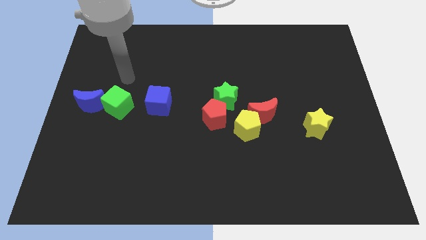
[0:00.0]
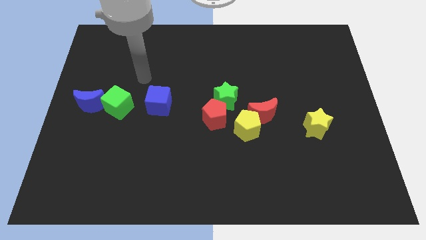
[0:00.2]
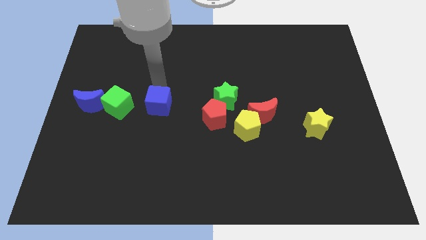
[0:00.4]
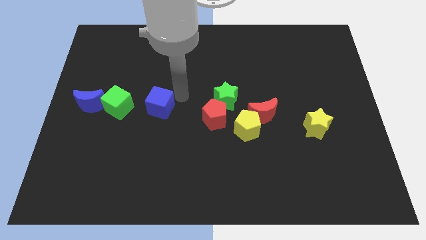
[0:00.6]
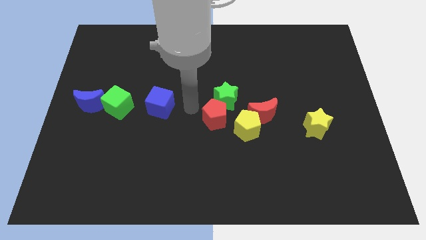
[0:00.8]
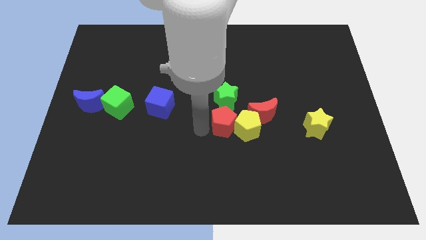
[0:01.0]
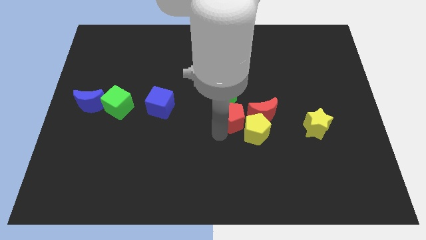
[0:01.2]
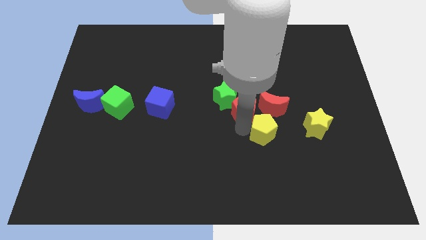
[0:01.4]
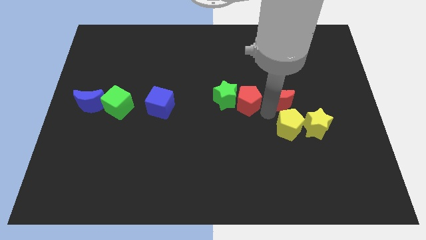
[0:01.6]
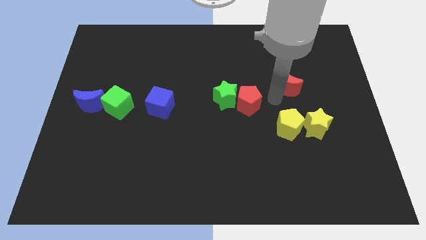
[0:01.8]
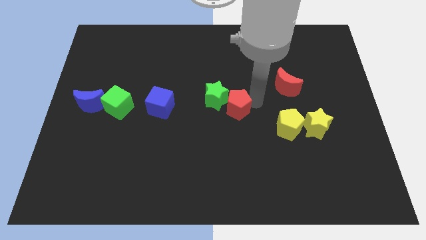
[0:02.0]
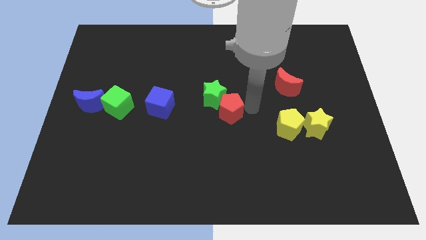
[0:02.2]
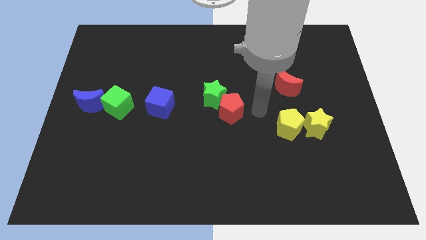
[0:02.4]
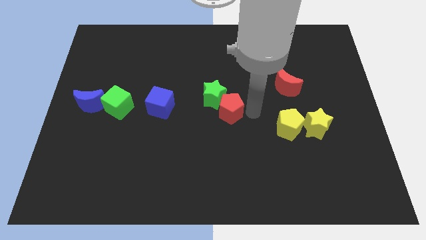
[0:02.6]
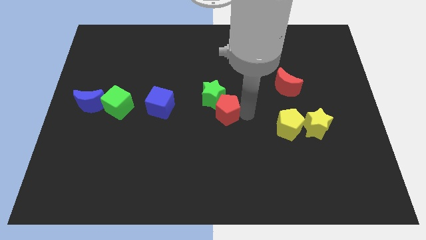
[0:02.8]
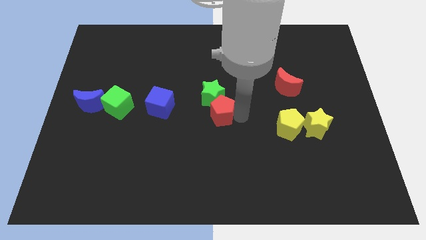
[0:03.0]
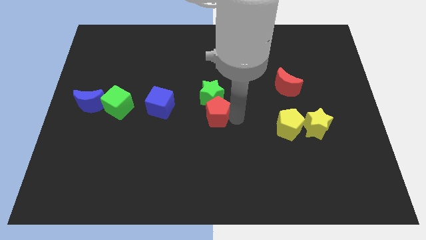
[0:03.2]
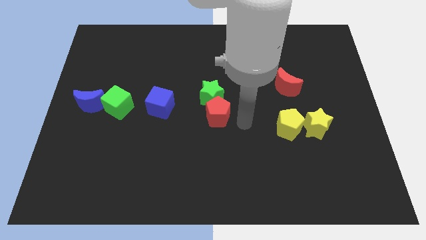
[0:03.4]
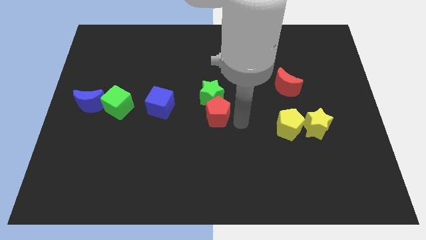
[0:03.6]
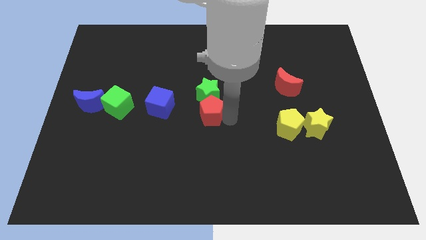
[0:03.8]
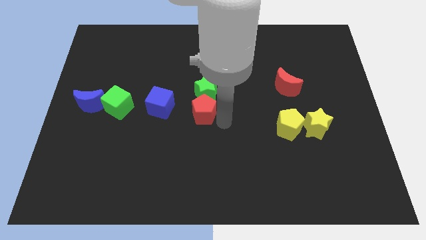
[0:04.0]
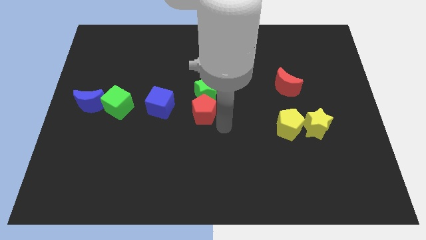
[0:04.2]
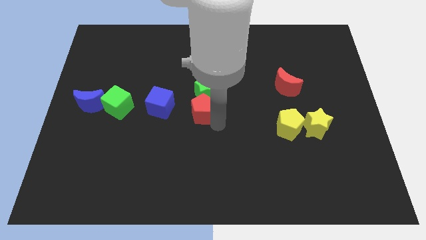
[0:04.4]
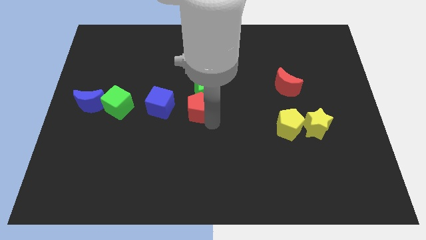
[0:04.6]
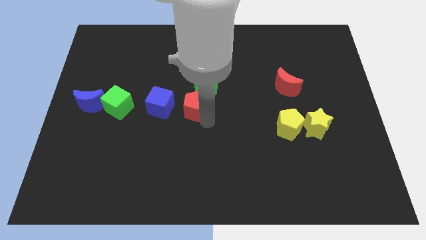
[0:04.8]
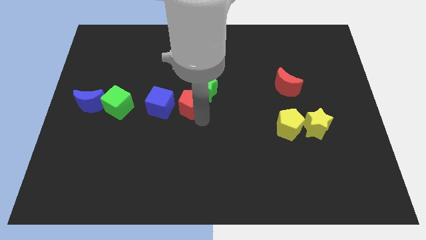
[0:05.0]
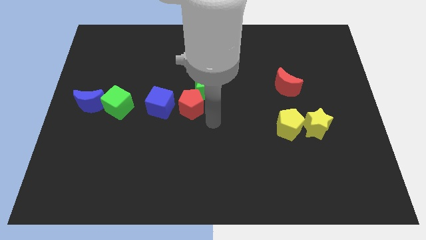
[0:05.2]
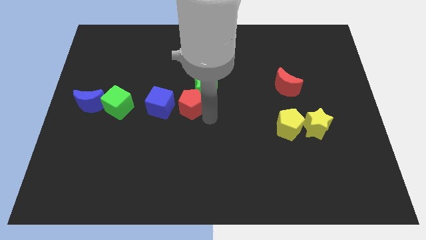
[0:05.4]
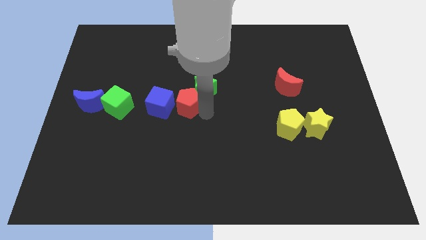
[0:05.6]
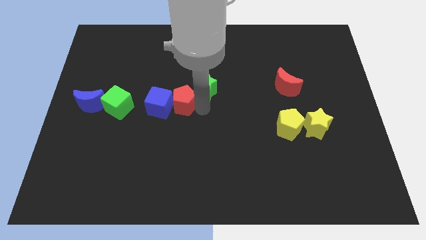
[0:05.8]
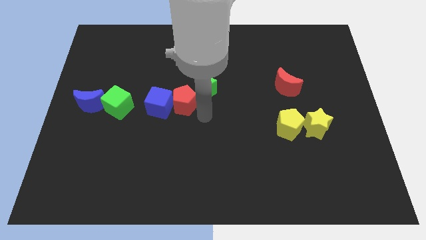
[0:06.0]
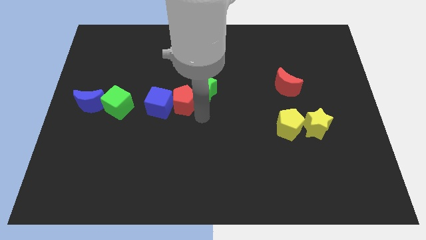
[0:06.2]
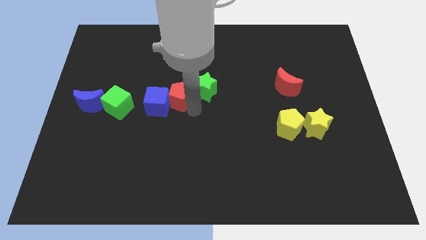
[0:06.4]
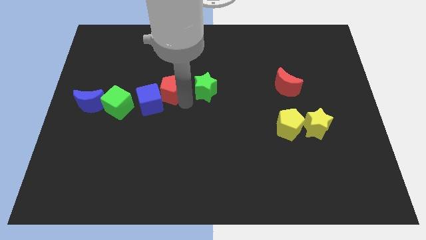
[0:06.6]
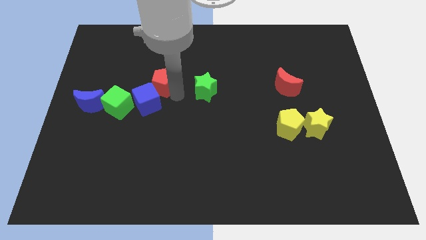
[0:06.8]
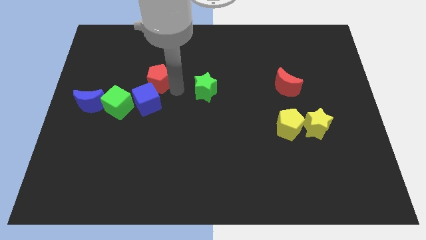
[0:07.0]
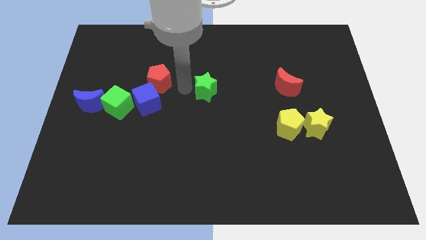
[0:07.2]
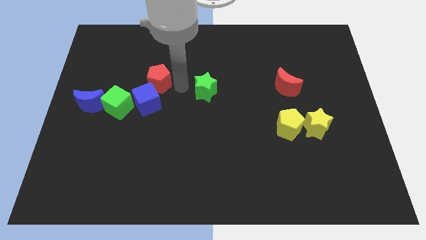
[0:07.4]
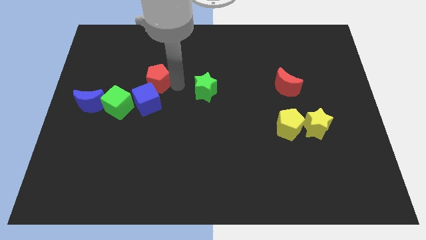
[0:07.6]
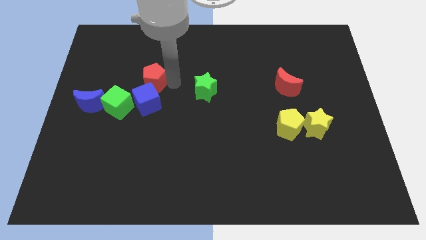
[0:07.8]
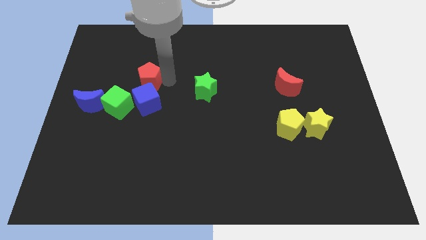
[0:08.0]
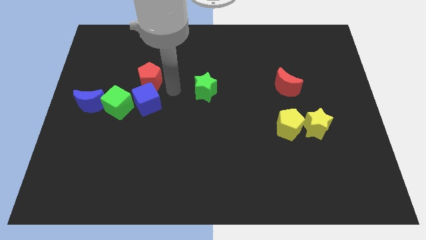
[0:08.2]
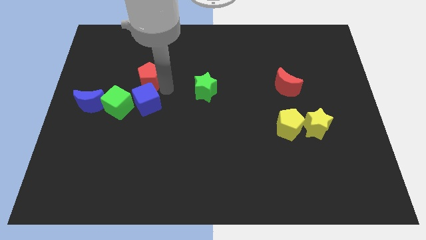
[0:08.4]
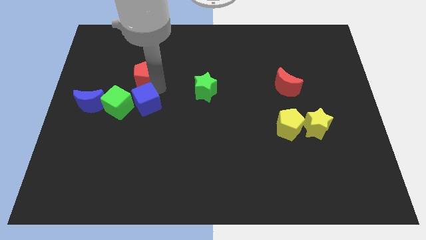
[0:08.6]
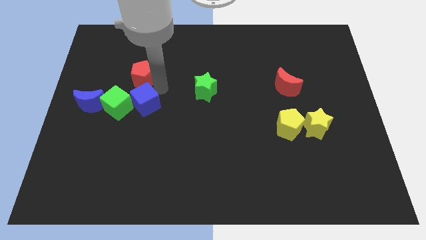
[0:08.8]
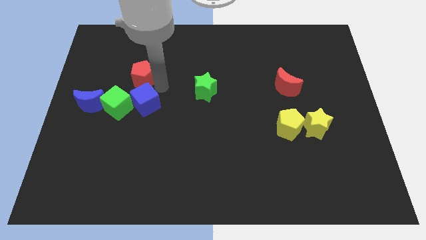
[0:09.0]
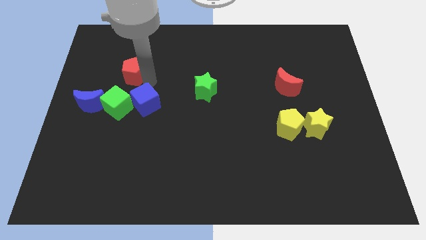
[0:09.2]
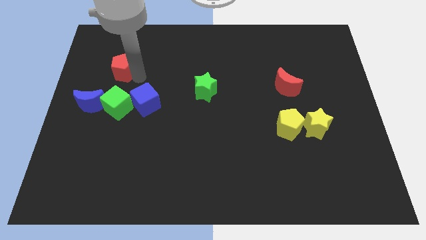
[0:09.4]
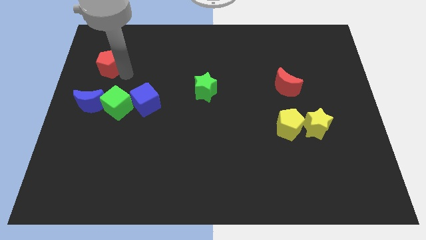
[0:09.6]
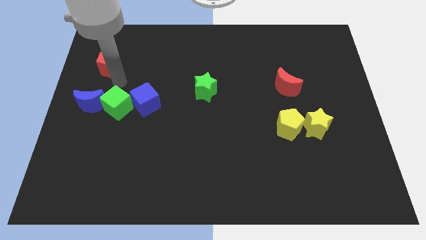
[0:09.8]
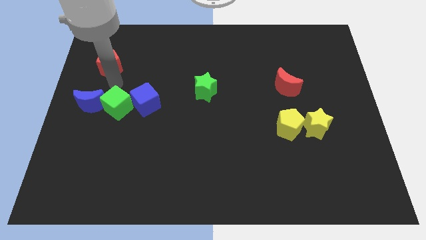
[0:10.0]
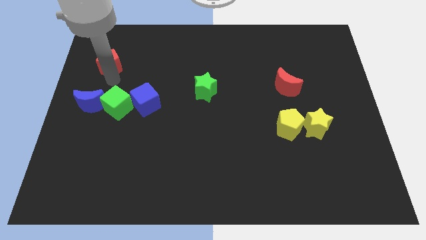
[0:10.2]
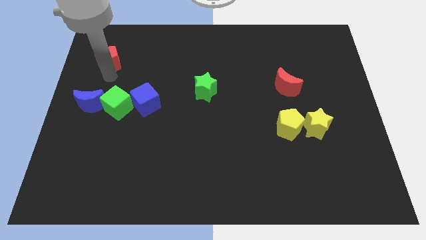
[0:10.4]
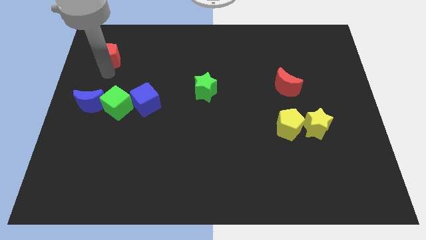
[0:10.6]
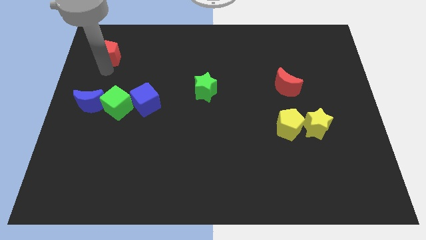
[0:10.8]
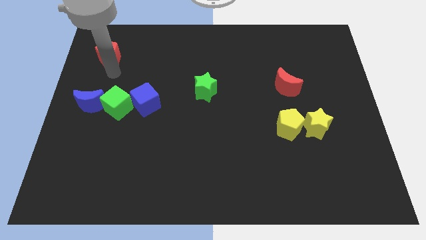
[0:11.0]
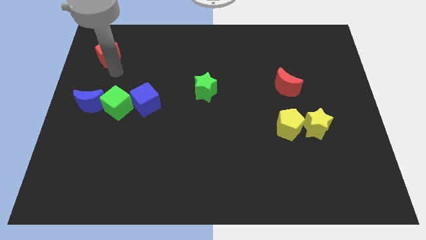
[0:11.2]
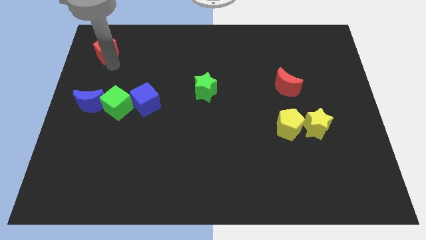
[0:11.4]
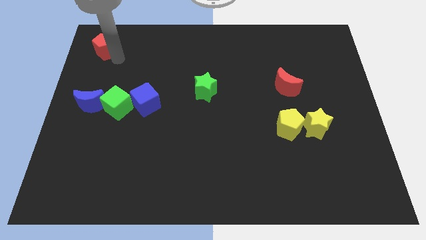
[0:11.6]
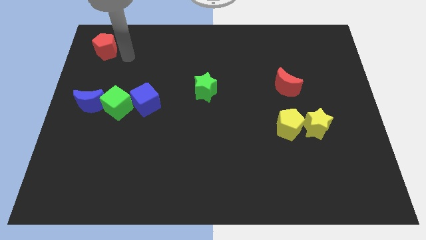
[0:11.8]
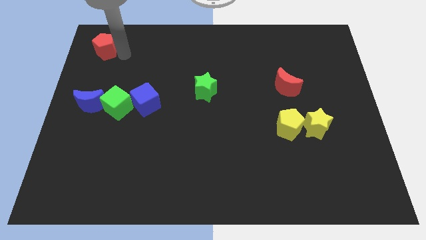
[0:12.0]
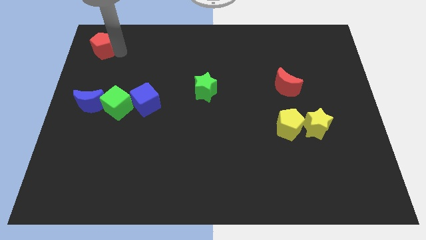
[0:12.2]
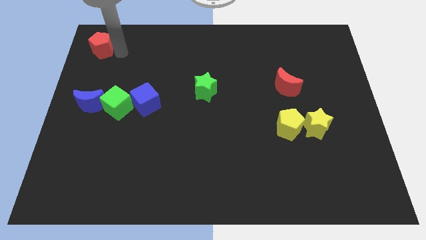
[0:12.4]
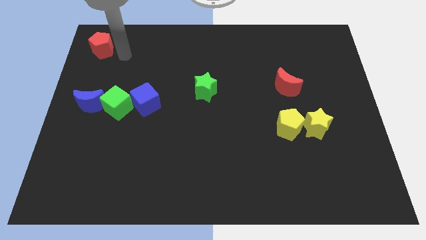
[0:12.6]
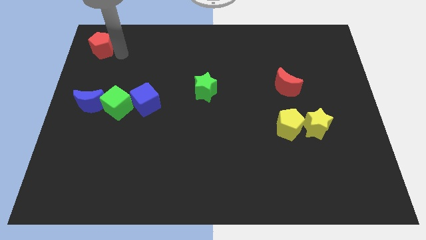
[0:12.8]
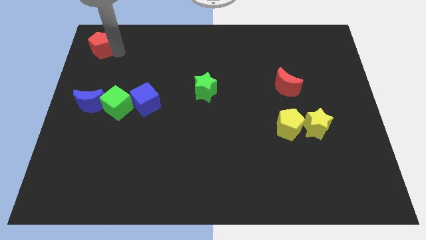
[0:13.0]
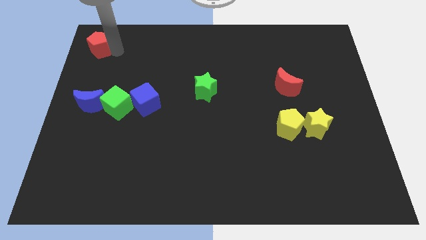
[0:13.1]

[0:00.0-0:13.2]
slide the red pentagon to the top left corner

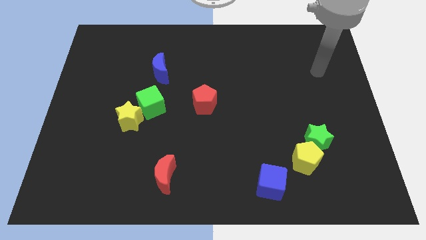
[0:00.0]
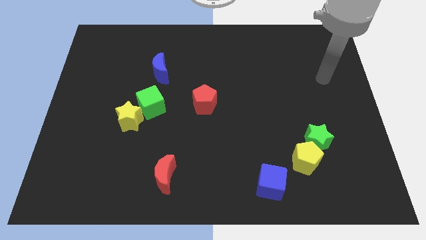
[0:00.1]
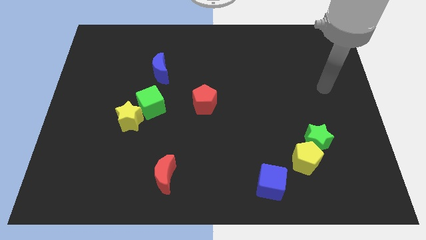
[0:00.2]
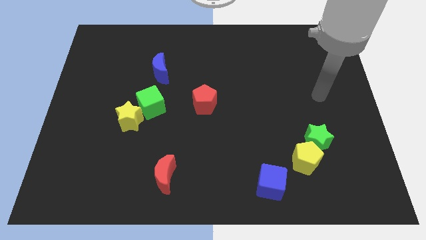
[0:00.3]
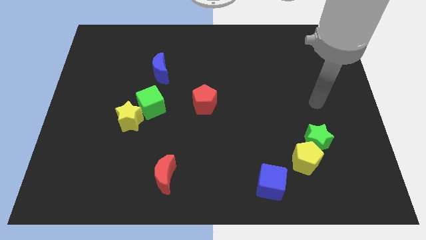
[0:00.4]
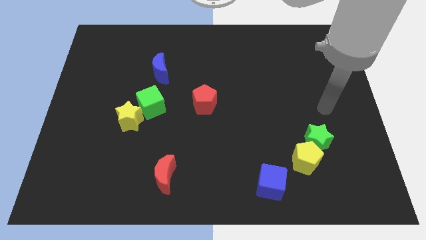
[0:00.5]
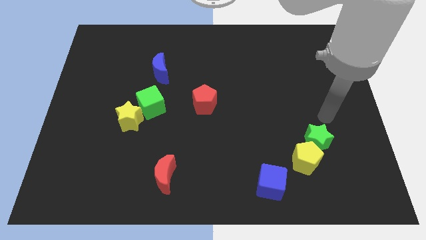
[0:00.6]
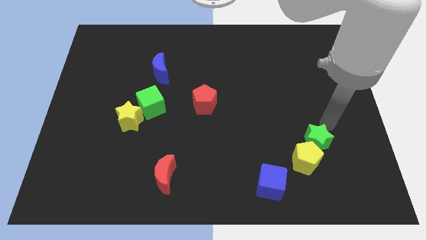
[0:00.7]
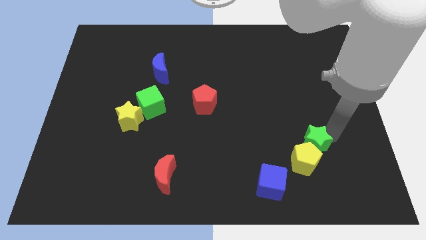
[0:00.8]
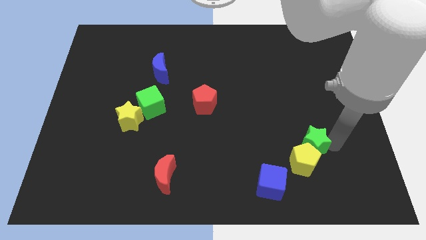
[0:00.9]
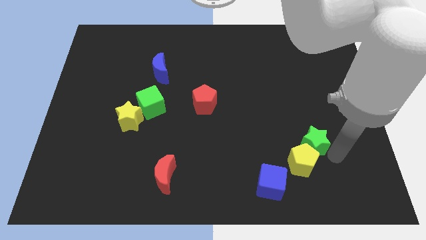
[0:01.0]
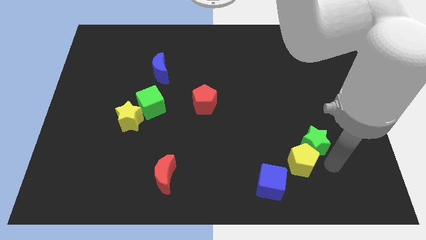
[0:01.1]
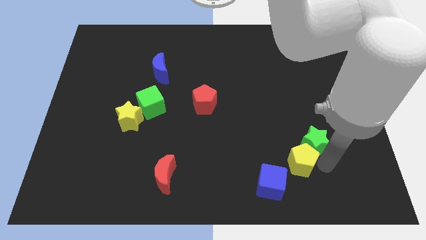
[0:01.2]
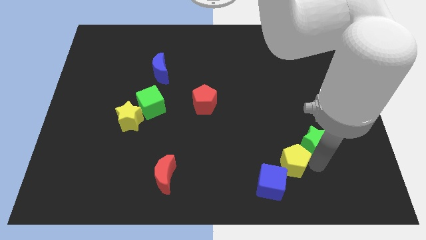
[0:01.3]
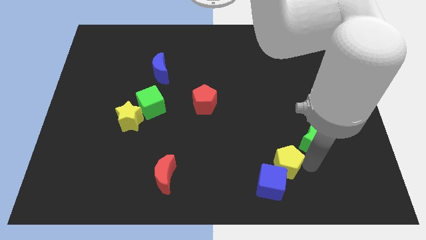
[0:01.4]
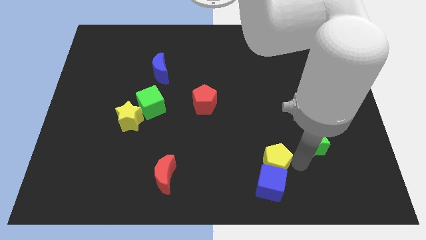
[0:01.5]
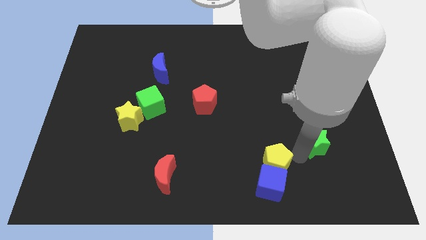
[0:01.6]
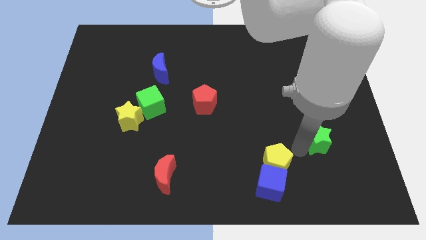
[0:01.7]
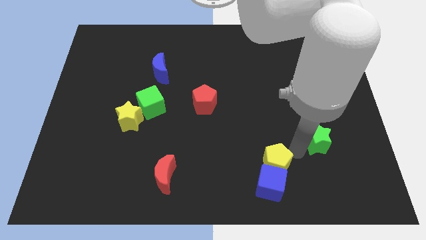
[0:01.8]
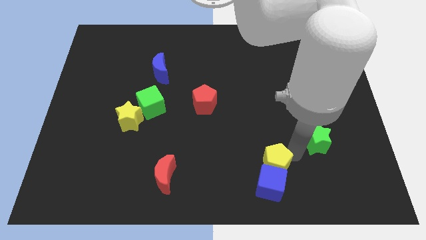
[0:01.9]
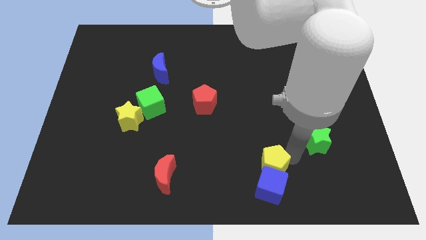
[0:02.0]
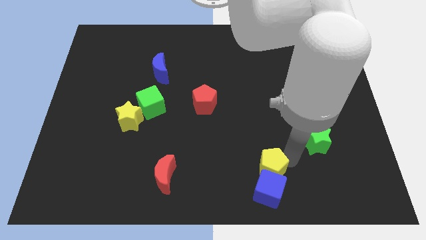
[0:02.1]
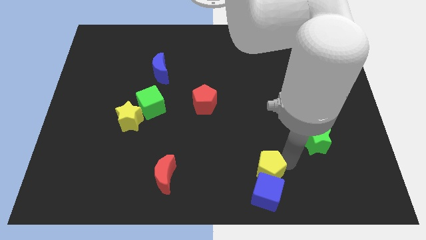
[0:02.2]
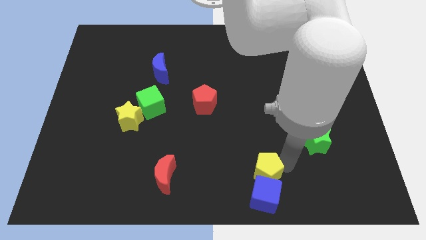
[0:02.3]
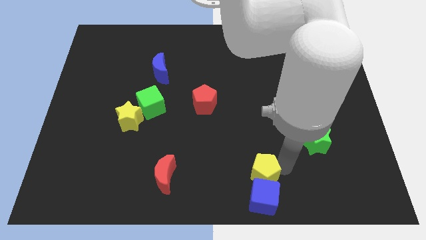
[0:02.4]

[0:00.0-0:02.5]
push the yellow pentagon to the bottom side
